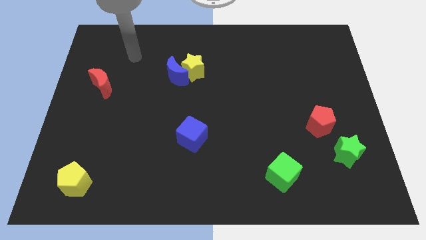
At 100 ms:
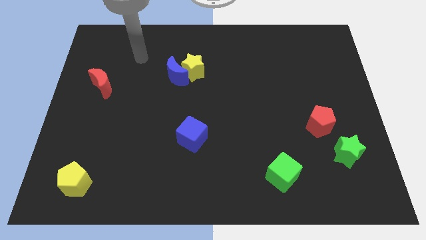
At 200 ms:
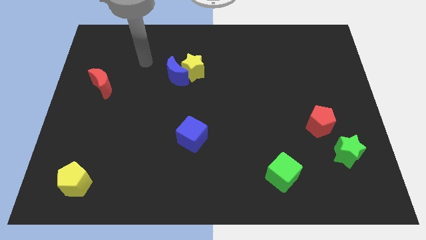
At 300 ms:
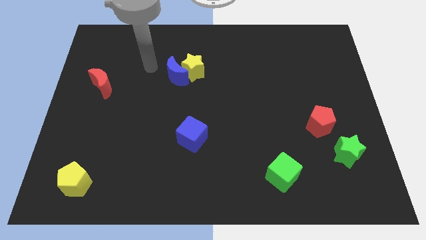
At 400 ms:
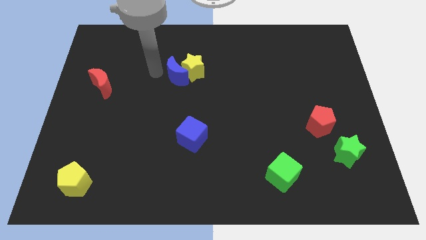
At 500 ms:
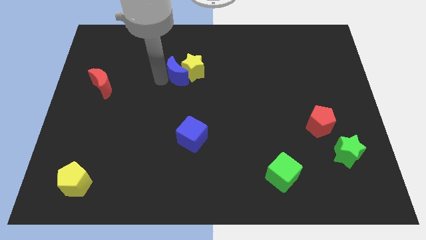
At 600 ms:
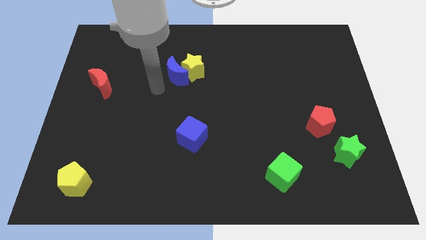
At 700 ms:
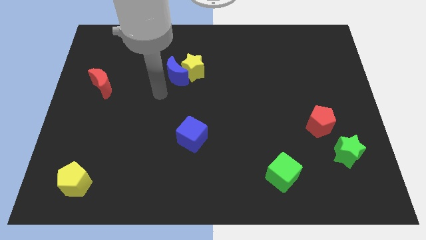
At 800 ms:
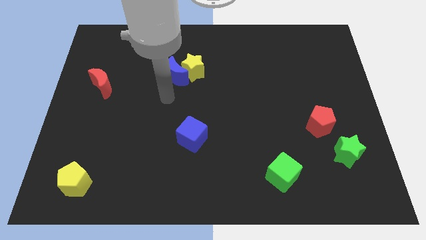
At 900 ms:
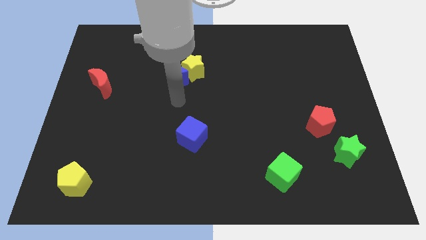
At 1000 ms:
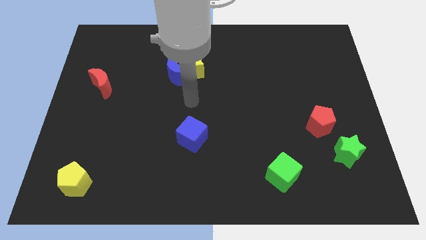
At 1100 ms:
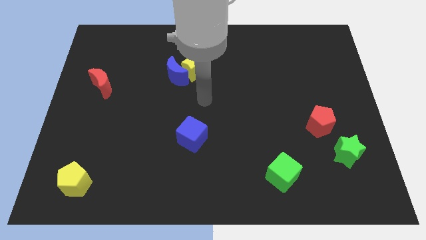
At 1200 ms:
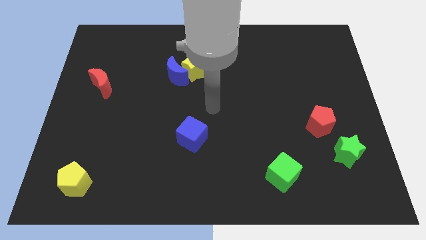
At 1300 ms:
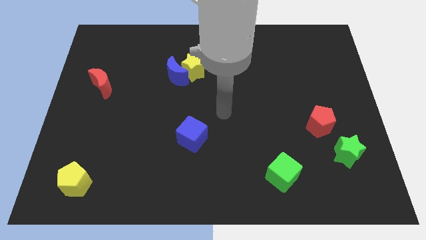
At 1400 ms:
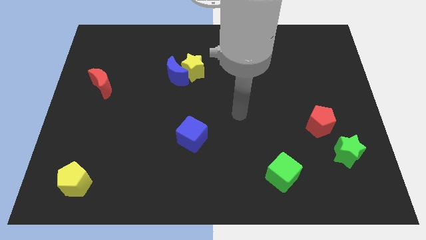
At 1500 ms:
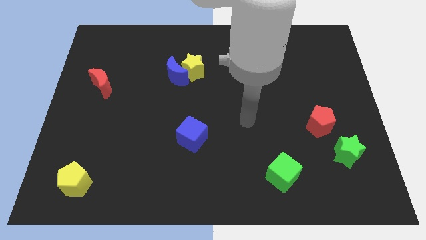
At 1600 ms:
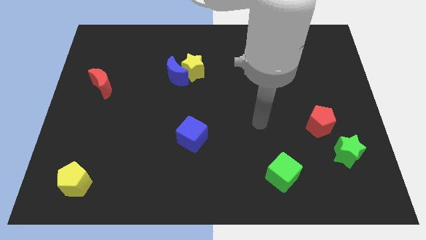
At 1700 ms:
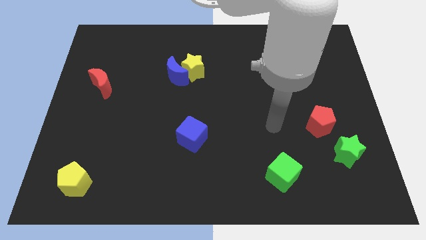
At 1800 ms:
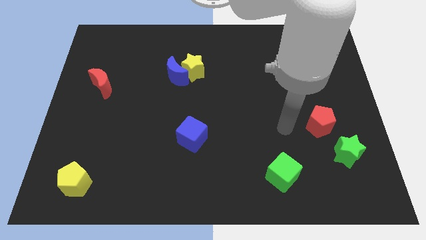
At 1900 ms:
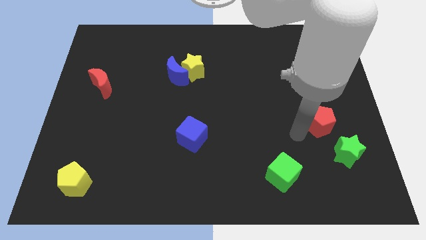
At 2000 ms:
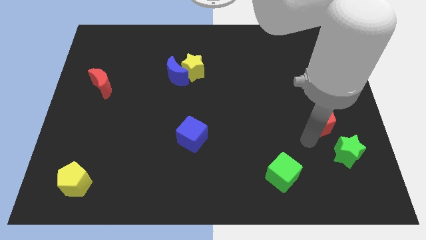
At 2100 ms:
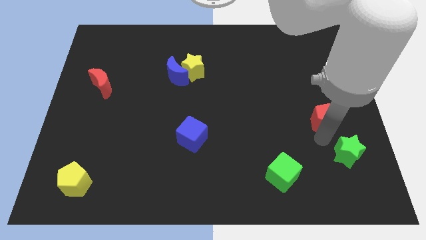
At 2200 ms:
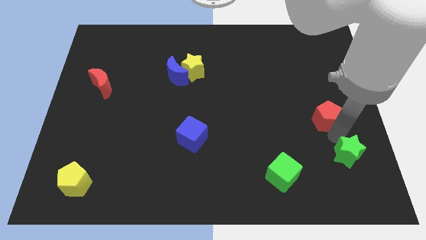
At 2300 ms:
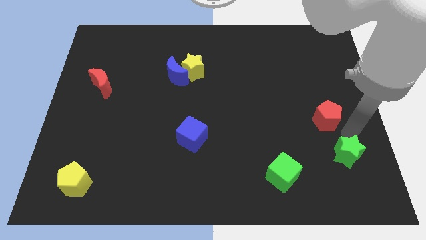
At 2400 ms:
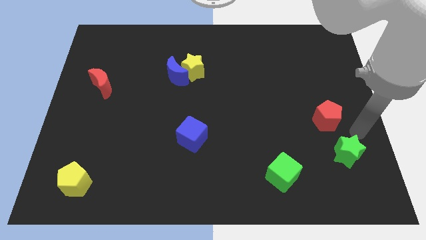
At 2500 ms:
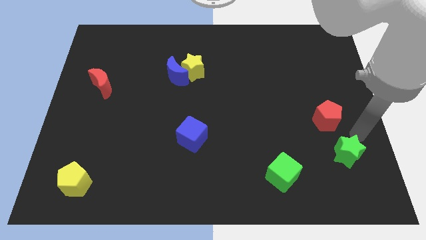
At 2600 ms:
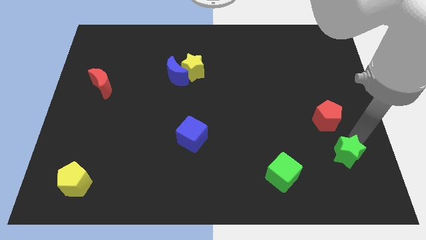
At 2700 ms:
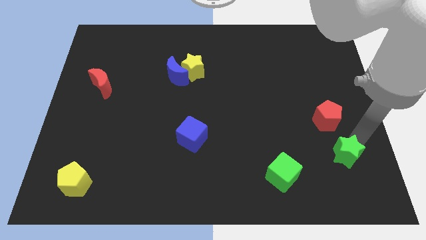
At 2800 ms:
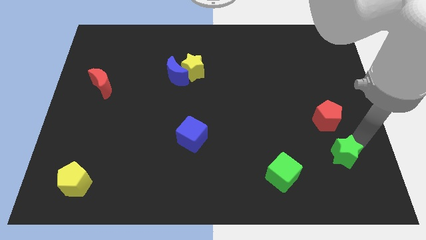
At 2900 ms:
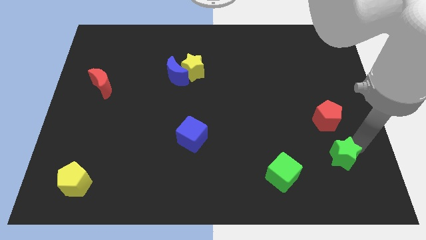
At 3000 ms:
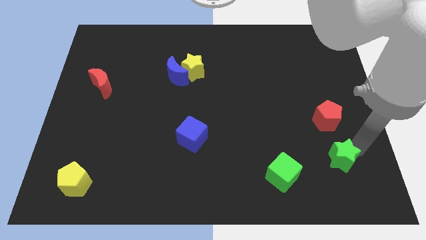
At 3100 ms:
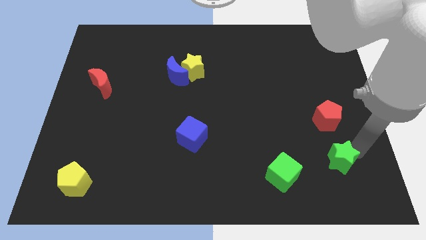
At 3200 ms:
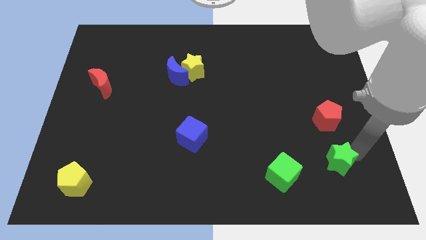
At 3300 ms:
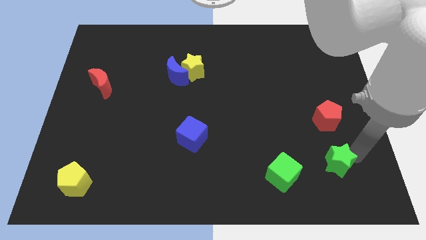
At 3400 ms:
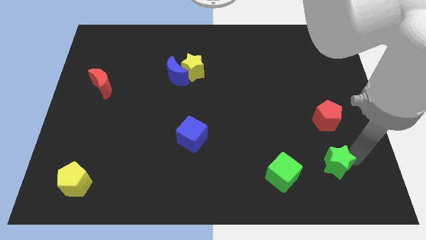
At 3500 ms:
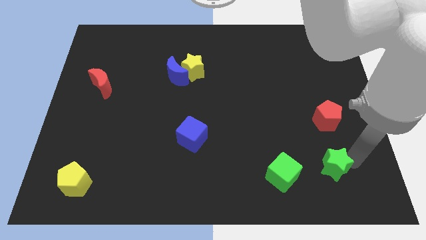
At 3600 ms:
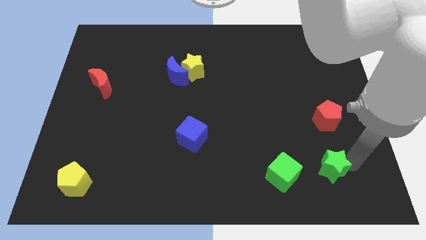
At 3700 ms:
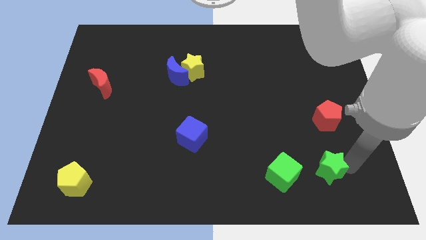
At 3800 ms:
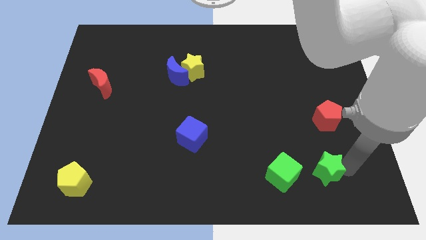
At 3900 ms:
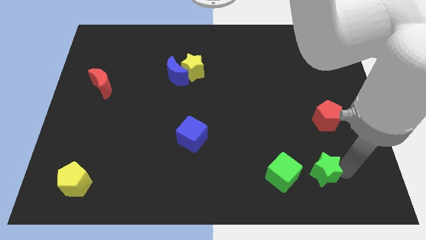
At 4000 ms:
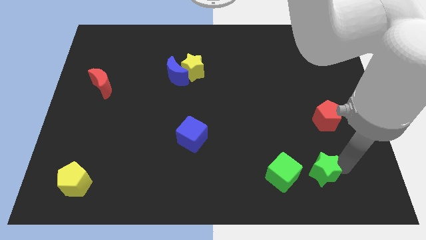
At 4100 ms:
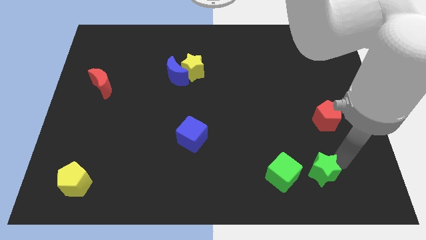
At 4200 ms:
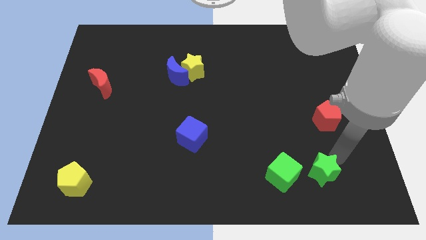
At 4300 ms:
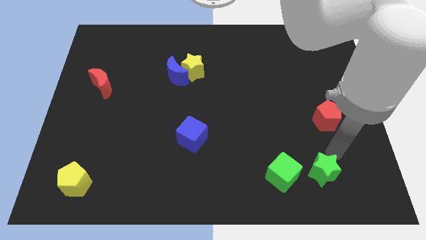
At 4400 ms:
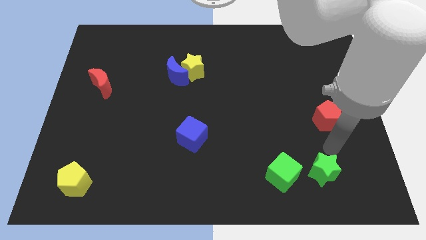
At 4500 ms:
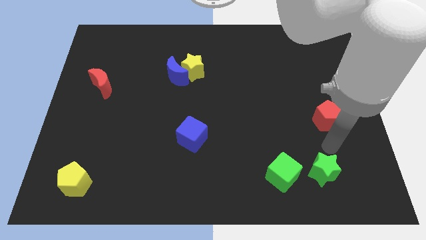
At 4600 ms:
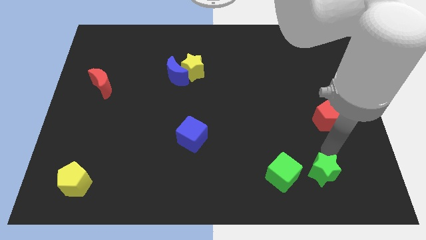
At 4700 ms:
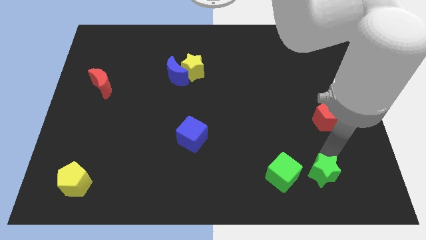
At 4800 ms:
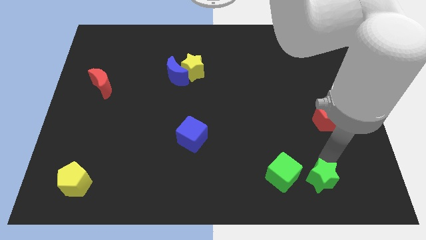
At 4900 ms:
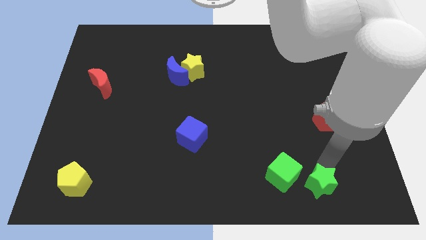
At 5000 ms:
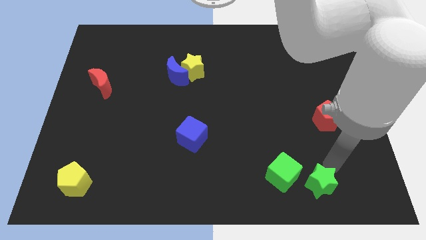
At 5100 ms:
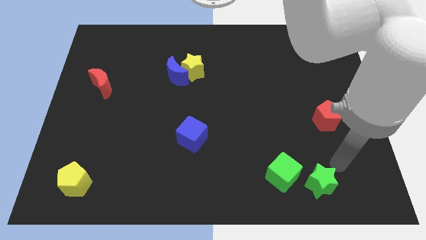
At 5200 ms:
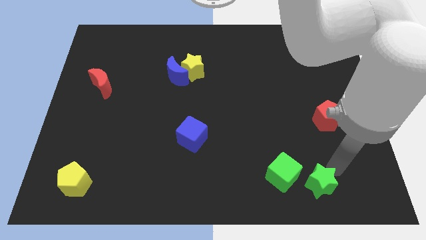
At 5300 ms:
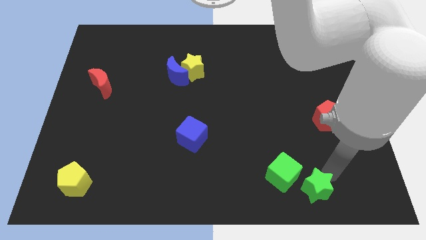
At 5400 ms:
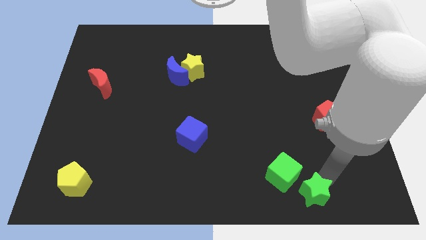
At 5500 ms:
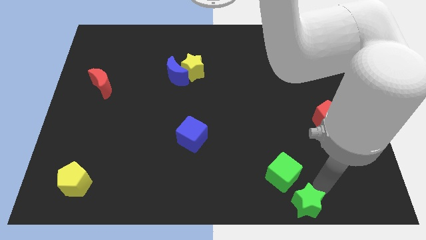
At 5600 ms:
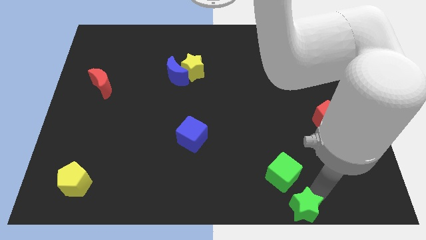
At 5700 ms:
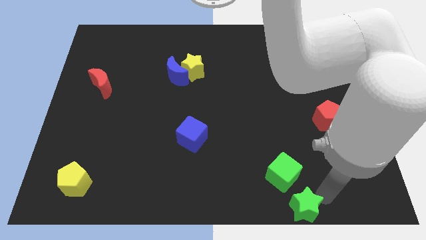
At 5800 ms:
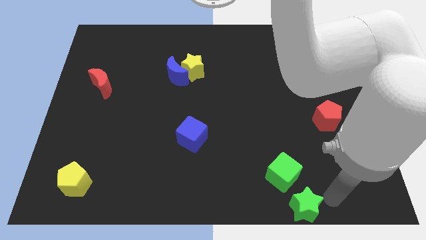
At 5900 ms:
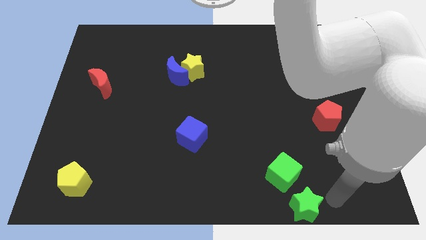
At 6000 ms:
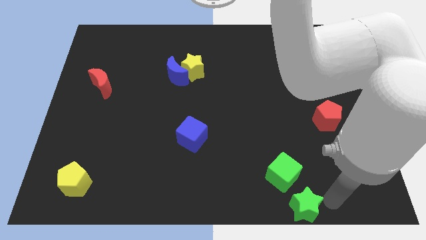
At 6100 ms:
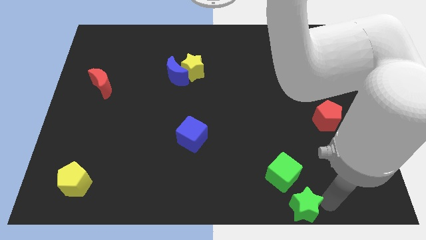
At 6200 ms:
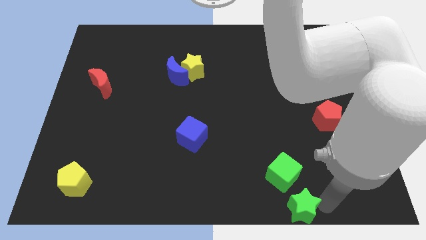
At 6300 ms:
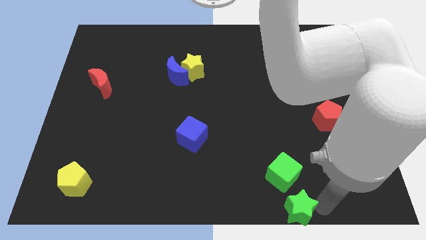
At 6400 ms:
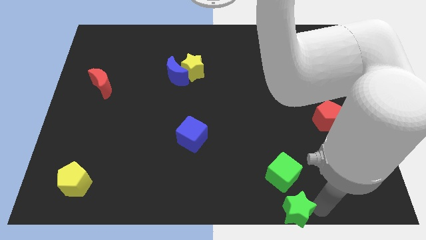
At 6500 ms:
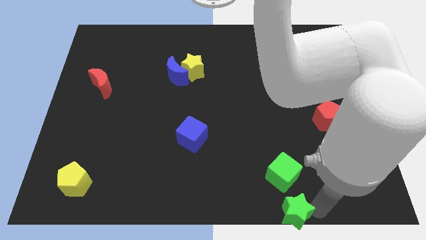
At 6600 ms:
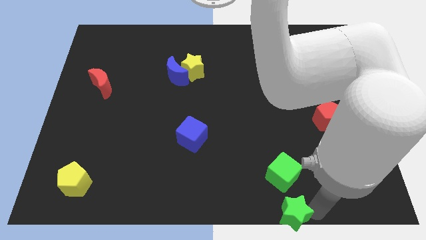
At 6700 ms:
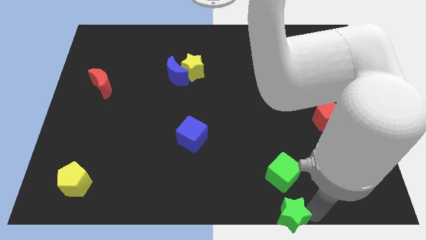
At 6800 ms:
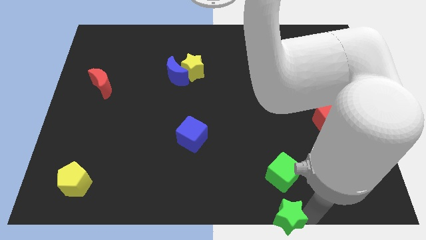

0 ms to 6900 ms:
push the green star to the bottom
